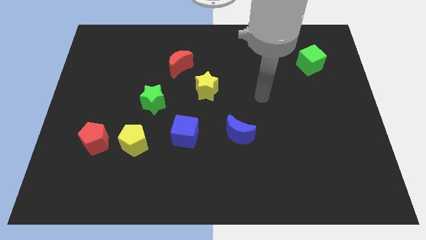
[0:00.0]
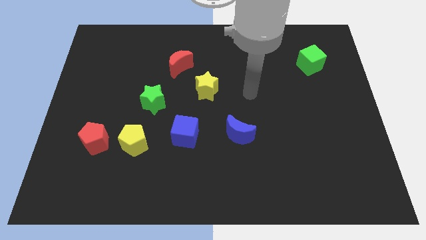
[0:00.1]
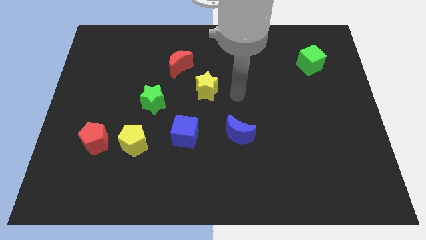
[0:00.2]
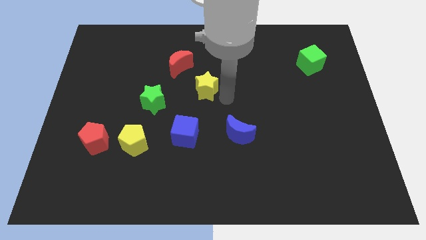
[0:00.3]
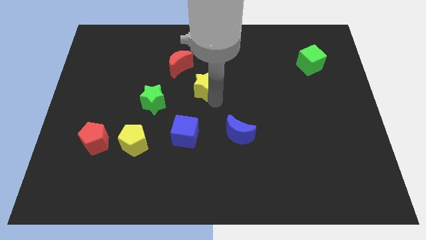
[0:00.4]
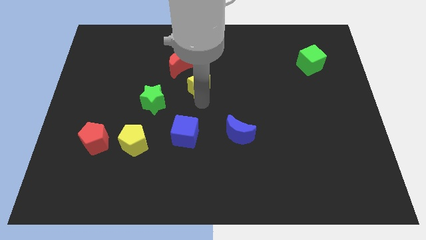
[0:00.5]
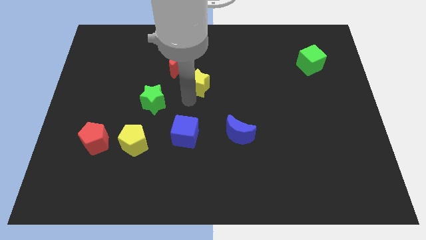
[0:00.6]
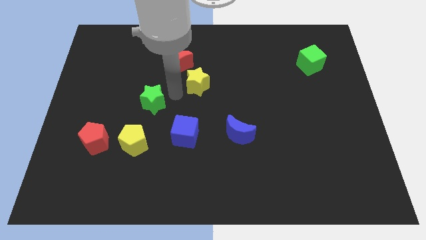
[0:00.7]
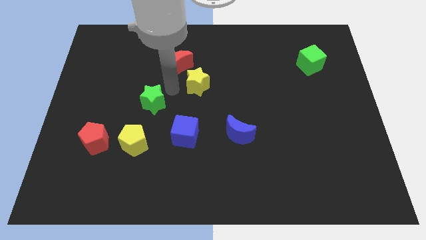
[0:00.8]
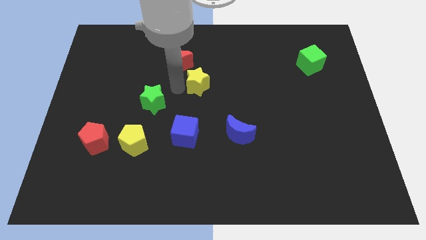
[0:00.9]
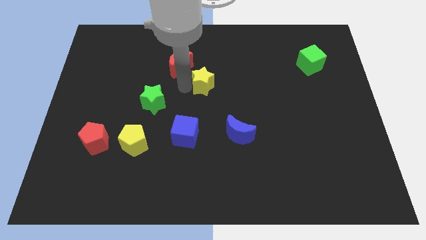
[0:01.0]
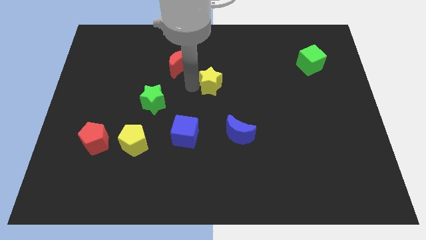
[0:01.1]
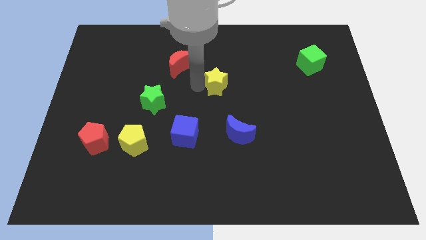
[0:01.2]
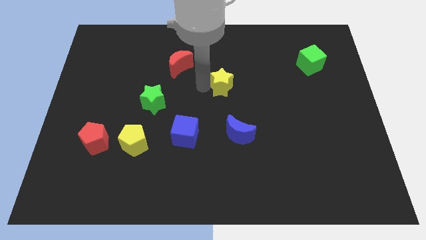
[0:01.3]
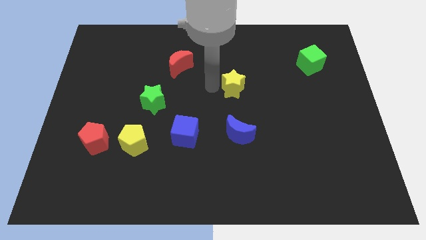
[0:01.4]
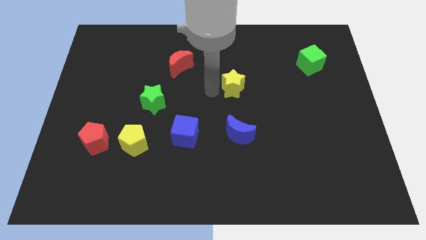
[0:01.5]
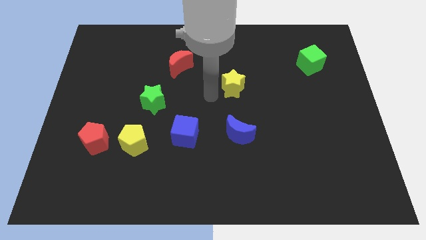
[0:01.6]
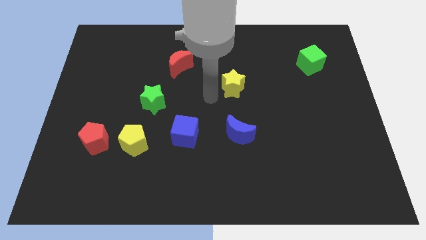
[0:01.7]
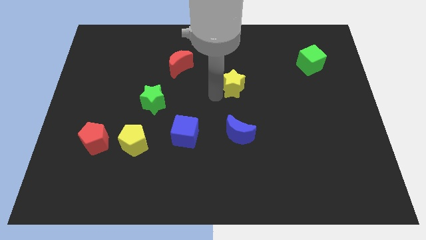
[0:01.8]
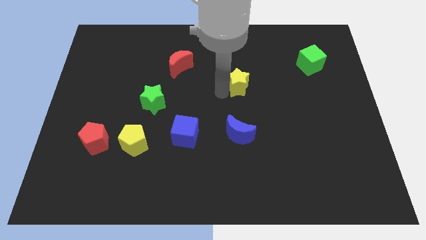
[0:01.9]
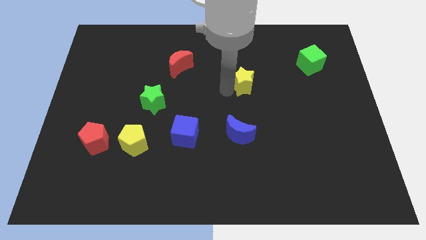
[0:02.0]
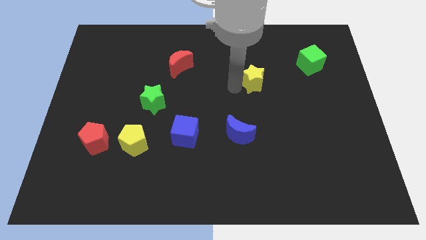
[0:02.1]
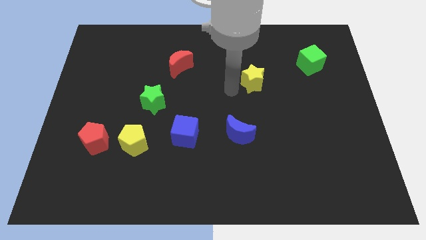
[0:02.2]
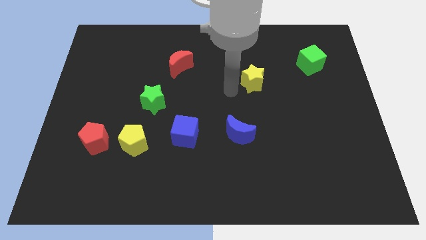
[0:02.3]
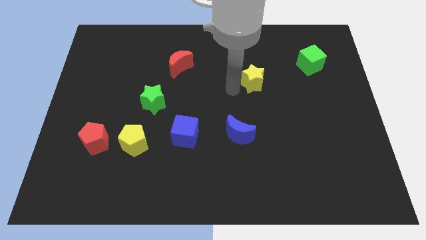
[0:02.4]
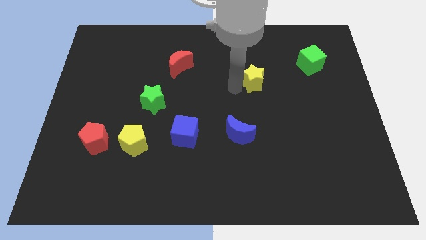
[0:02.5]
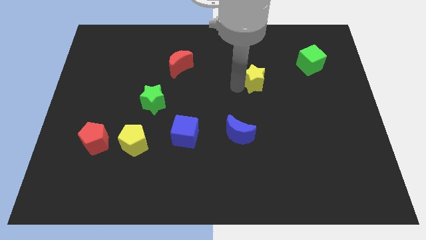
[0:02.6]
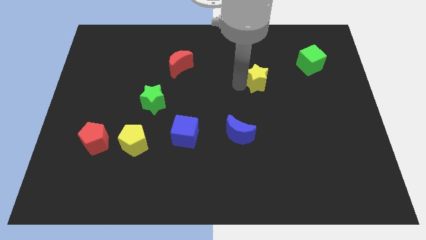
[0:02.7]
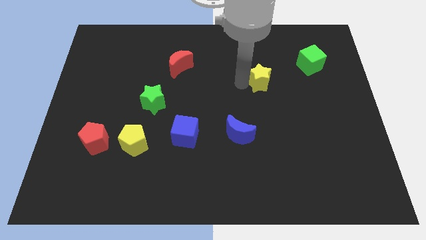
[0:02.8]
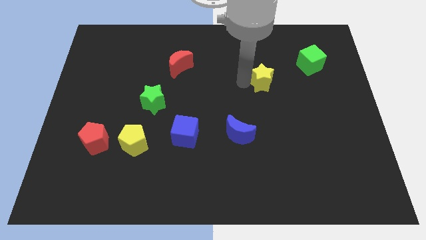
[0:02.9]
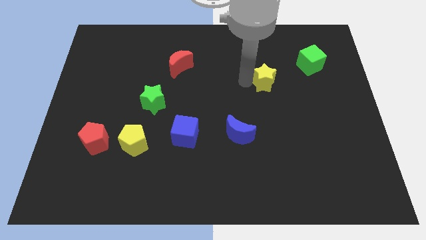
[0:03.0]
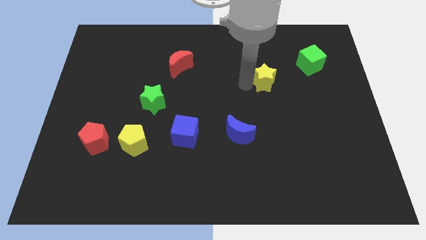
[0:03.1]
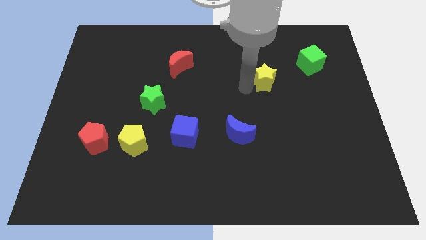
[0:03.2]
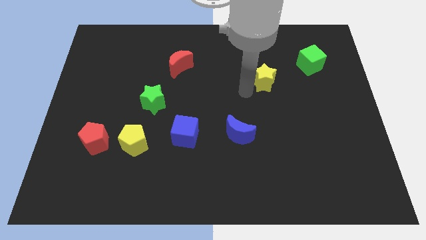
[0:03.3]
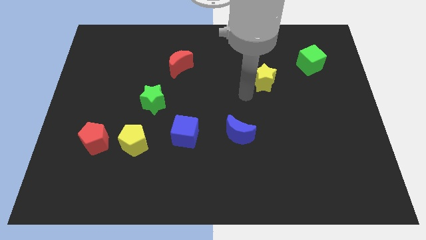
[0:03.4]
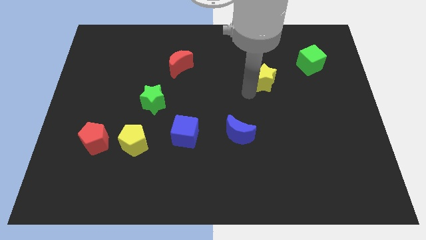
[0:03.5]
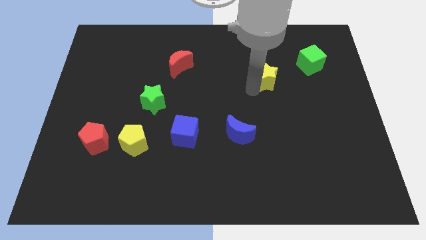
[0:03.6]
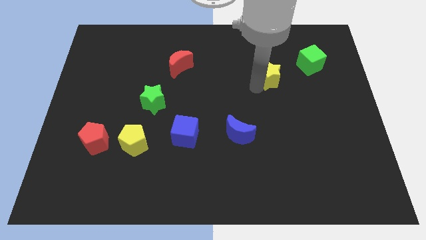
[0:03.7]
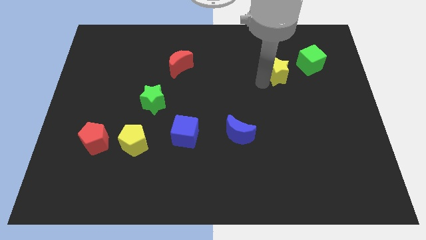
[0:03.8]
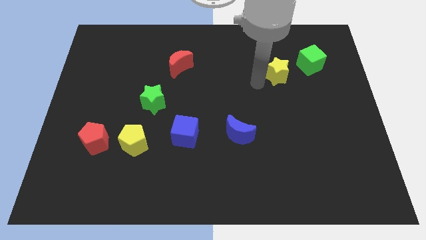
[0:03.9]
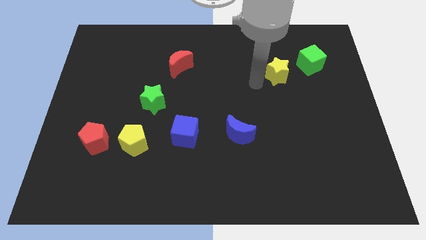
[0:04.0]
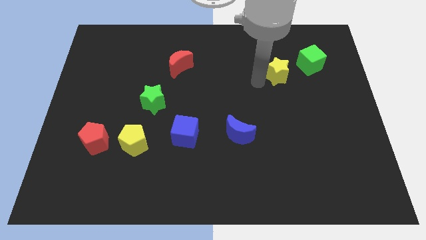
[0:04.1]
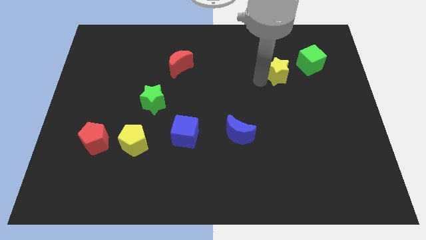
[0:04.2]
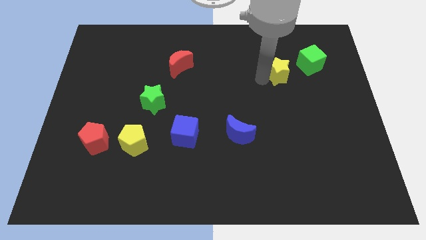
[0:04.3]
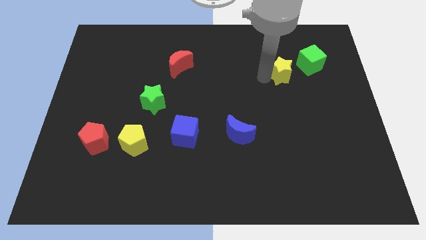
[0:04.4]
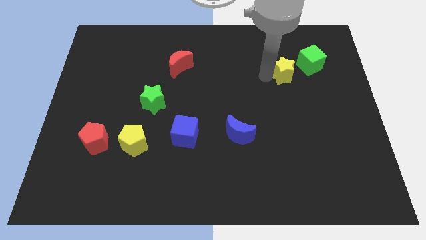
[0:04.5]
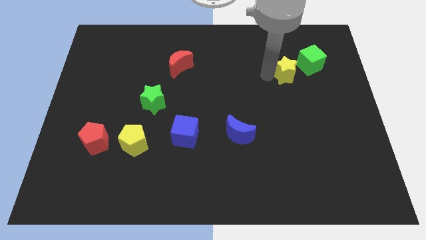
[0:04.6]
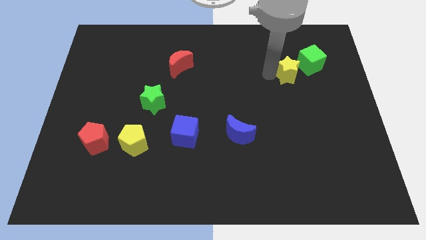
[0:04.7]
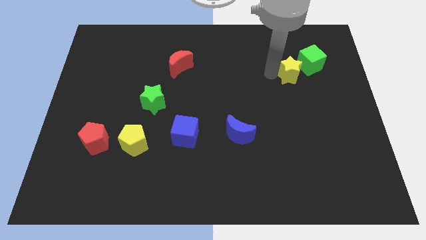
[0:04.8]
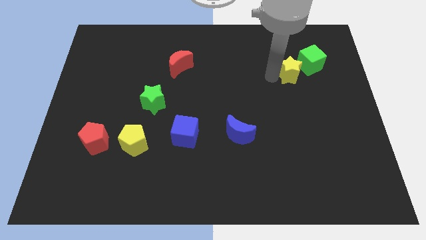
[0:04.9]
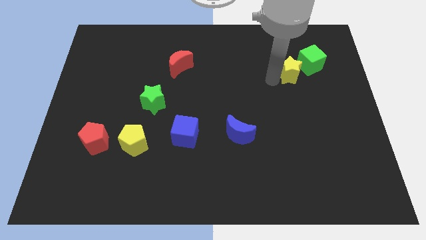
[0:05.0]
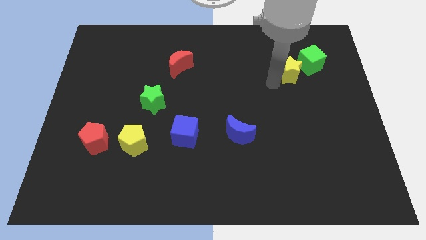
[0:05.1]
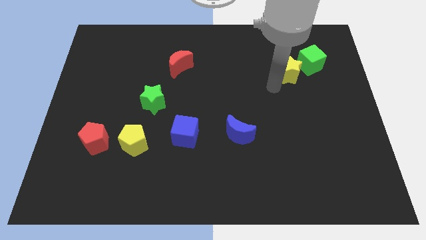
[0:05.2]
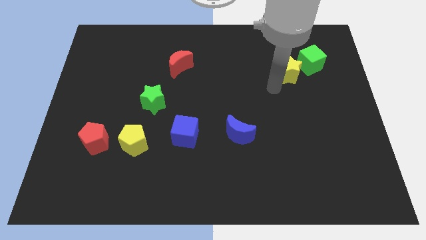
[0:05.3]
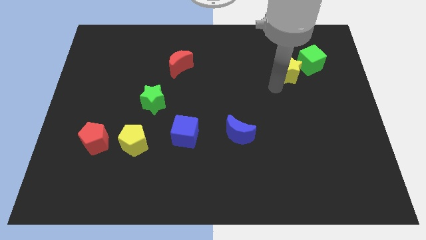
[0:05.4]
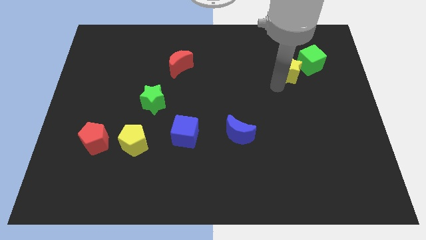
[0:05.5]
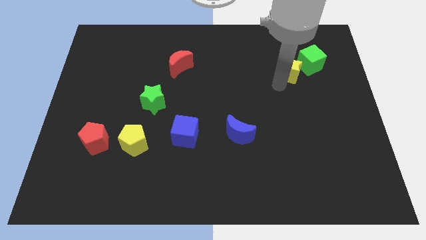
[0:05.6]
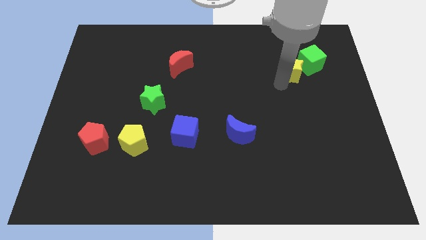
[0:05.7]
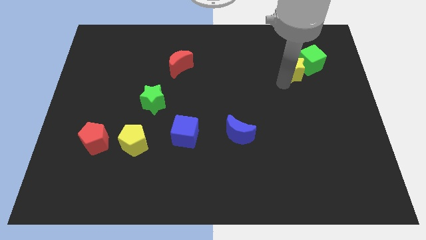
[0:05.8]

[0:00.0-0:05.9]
slide the yellow star close to the green cube
